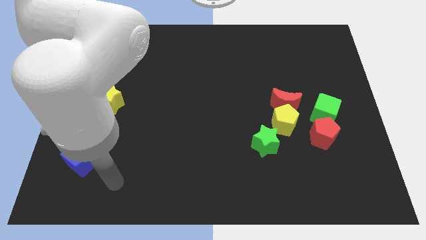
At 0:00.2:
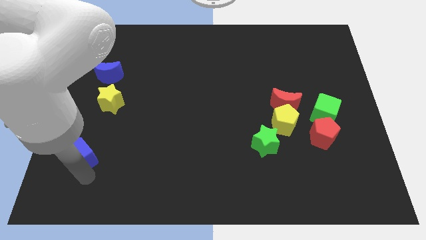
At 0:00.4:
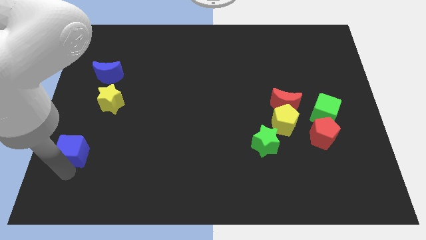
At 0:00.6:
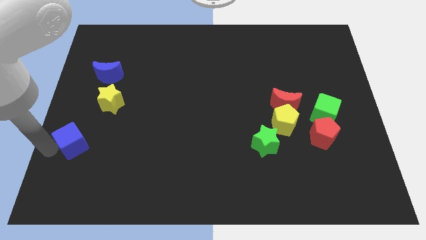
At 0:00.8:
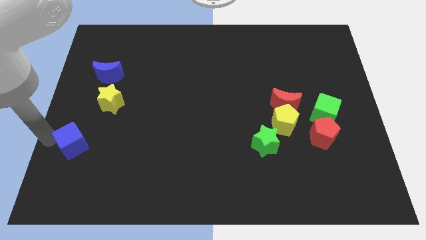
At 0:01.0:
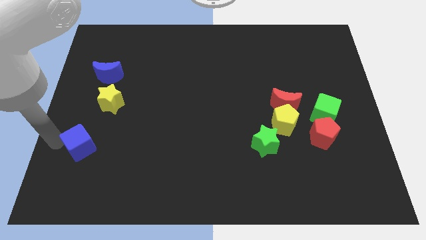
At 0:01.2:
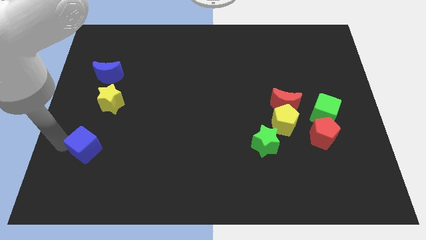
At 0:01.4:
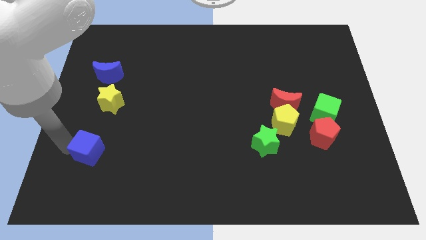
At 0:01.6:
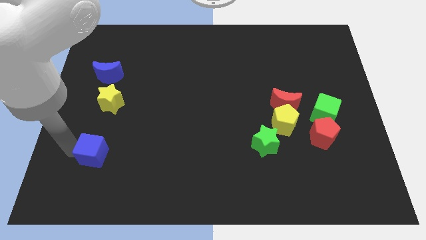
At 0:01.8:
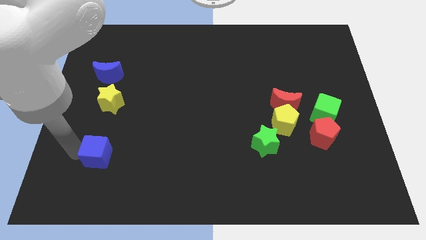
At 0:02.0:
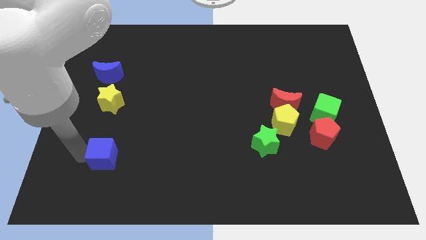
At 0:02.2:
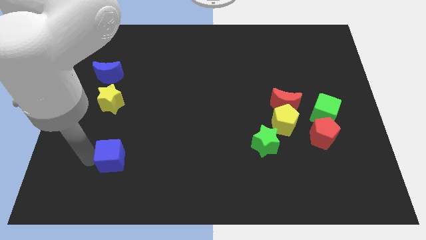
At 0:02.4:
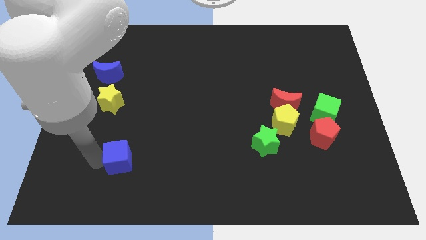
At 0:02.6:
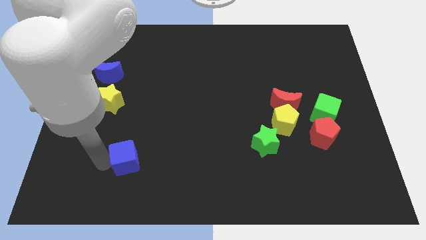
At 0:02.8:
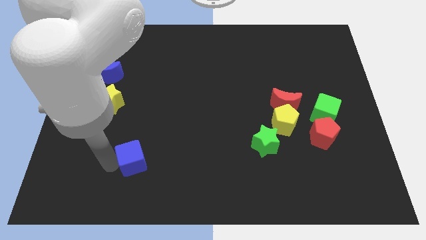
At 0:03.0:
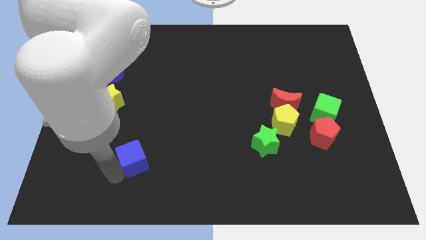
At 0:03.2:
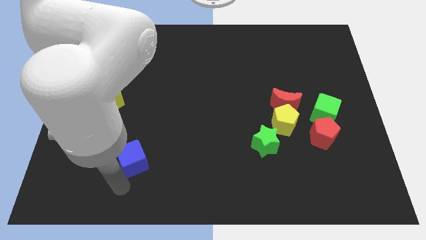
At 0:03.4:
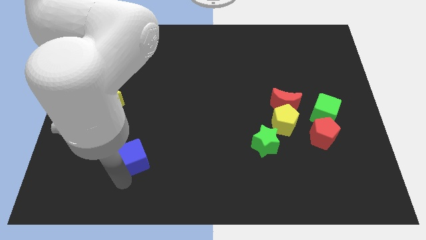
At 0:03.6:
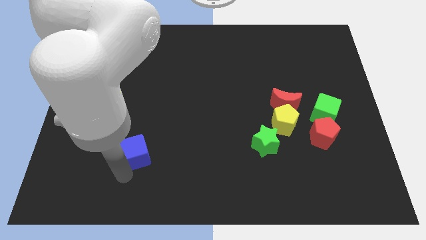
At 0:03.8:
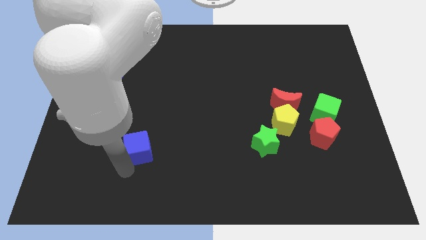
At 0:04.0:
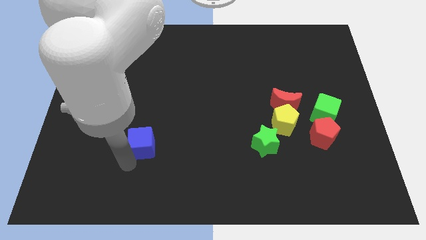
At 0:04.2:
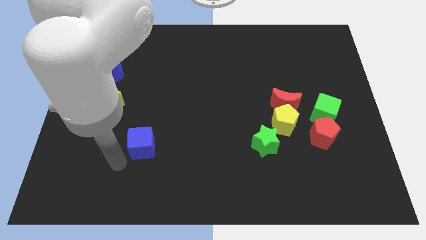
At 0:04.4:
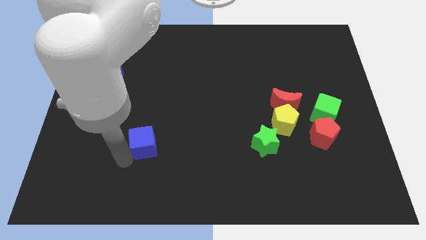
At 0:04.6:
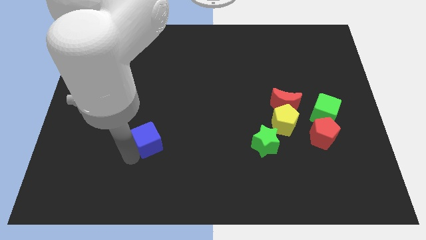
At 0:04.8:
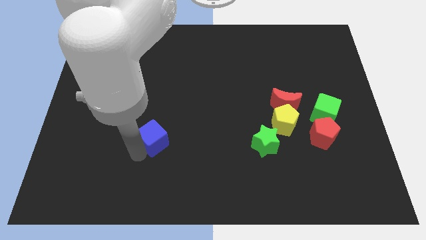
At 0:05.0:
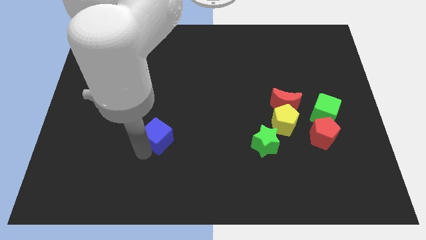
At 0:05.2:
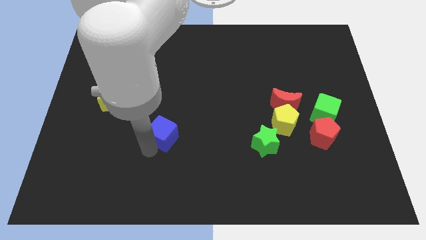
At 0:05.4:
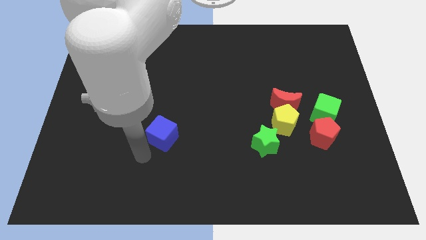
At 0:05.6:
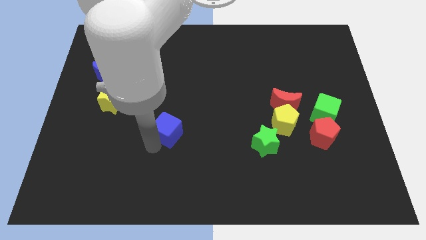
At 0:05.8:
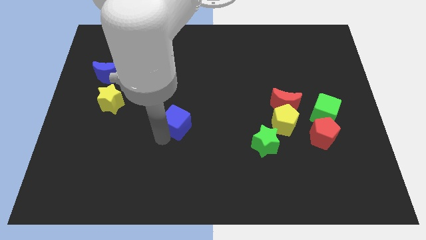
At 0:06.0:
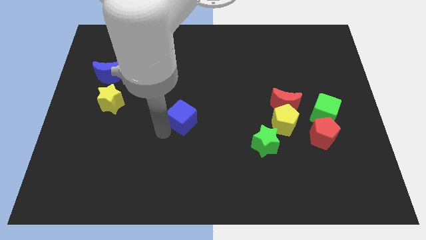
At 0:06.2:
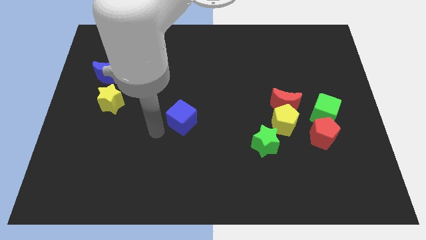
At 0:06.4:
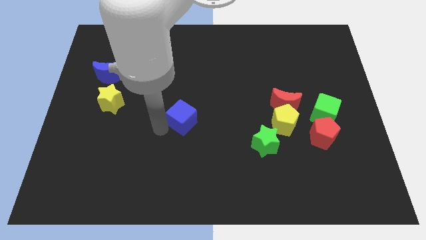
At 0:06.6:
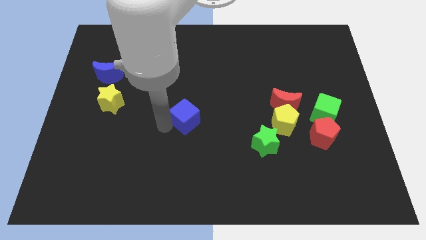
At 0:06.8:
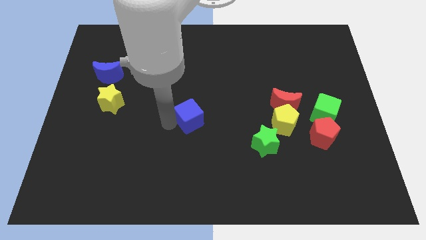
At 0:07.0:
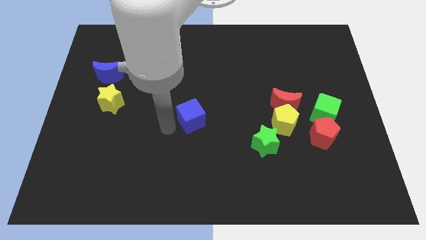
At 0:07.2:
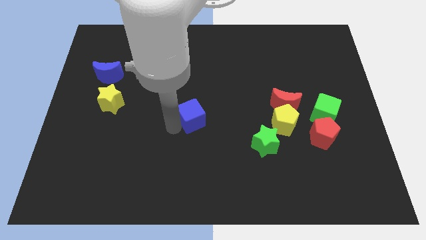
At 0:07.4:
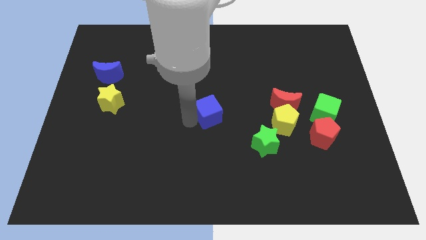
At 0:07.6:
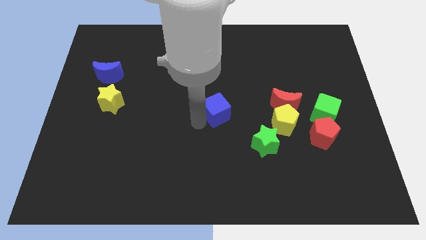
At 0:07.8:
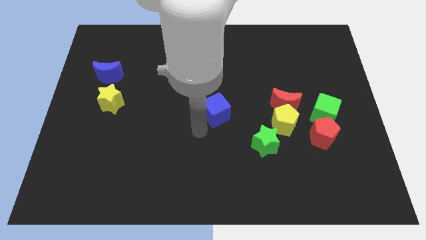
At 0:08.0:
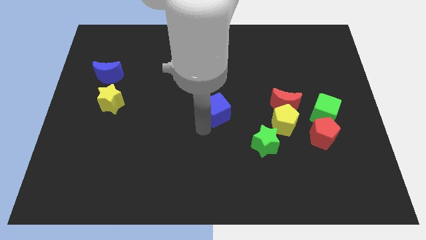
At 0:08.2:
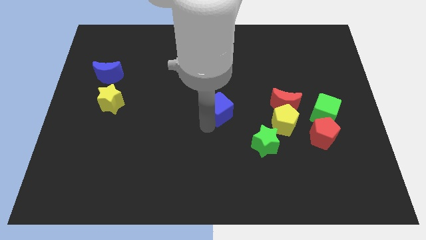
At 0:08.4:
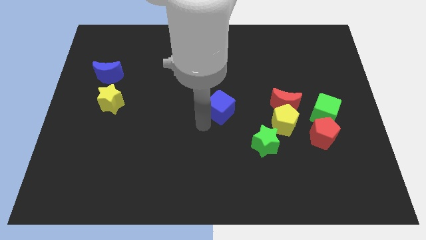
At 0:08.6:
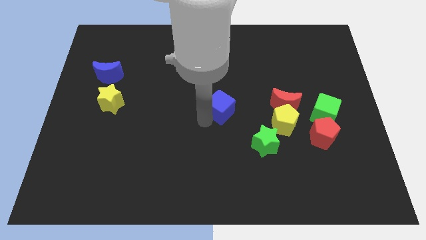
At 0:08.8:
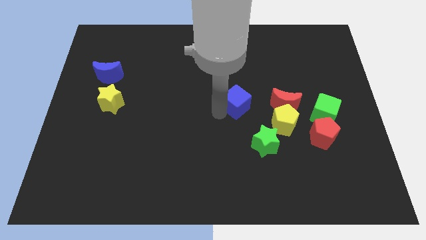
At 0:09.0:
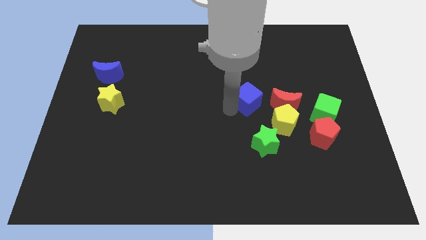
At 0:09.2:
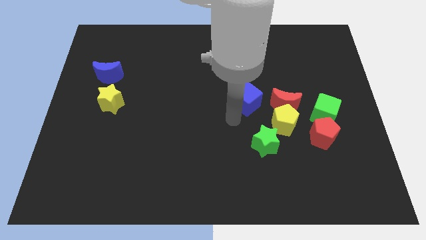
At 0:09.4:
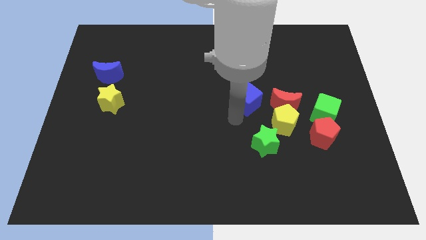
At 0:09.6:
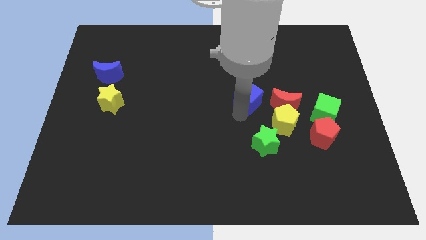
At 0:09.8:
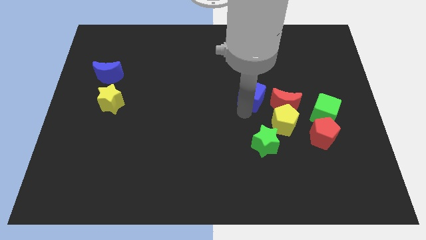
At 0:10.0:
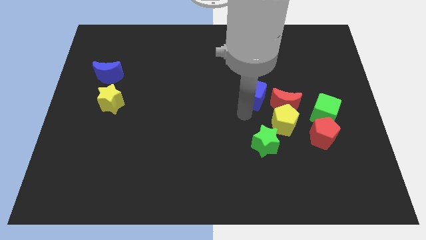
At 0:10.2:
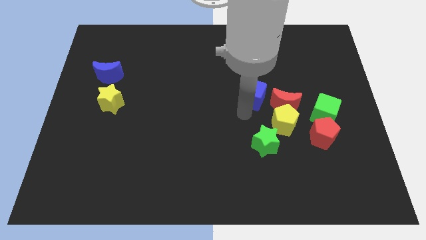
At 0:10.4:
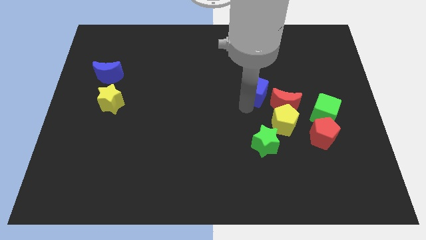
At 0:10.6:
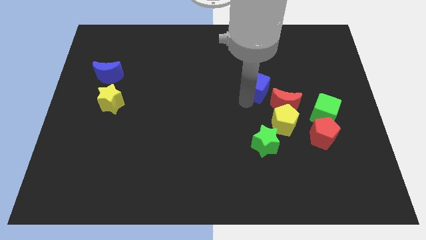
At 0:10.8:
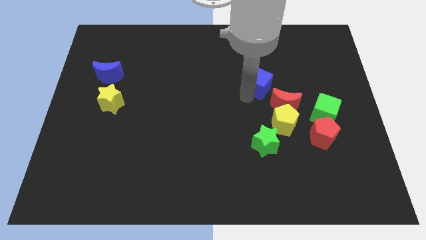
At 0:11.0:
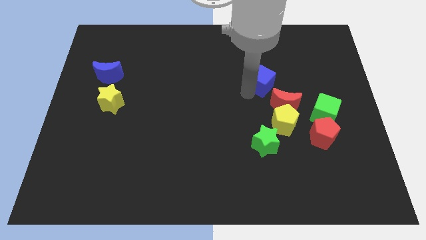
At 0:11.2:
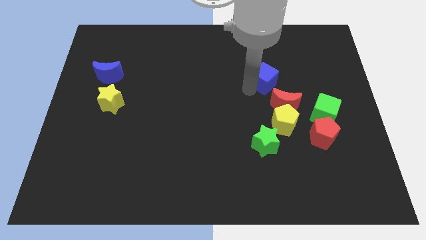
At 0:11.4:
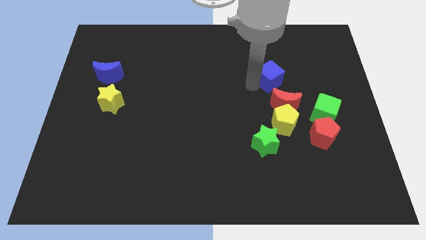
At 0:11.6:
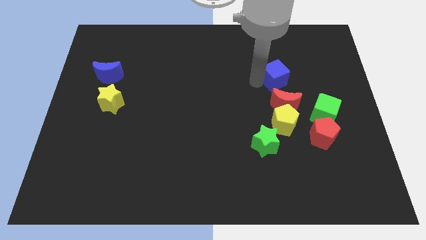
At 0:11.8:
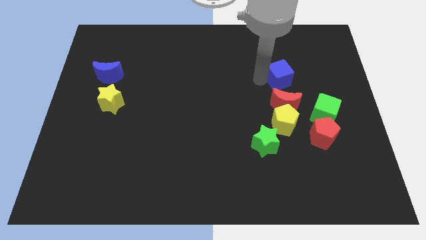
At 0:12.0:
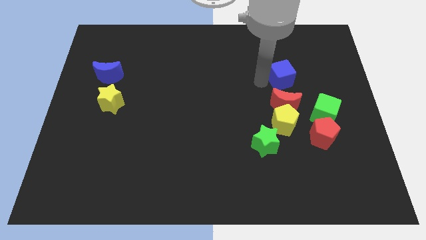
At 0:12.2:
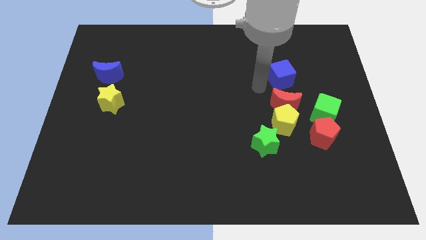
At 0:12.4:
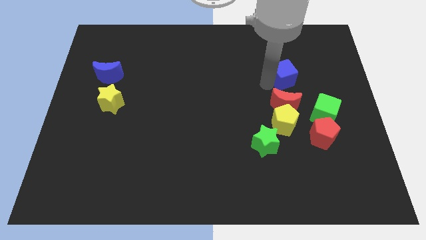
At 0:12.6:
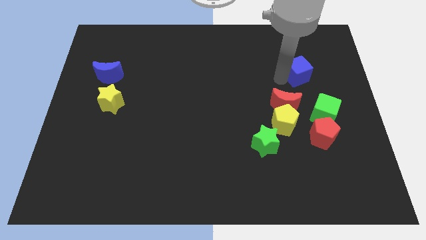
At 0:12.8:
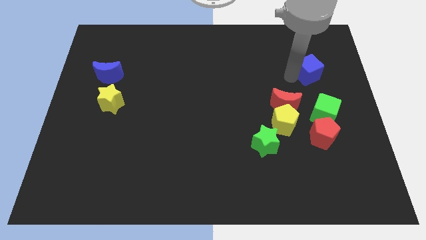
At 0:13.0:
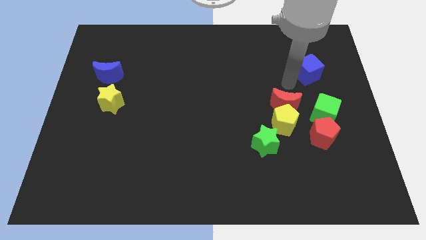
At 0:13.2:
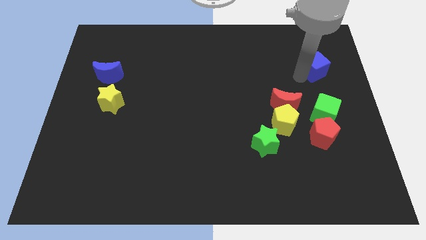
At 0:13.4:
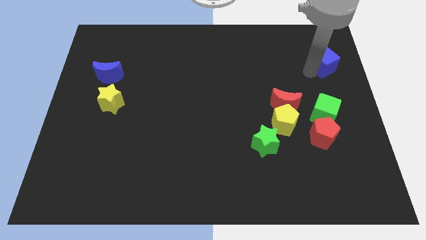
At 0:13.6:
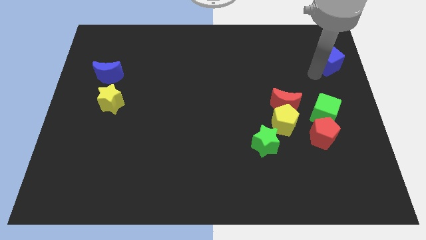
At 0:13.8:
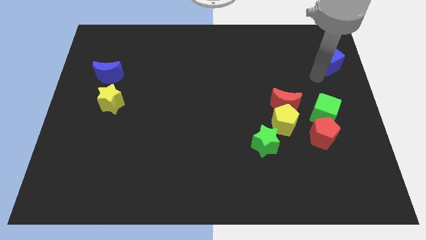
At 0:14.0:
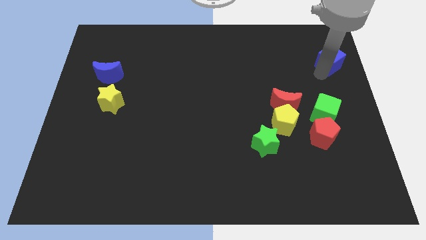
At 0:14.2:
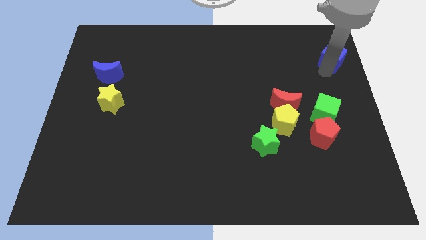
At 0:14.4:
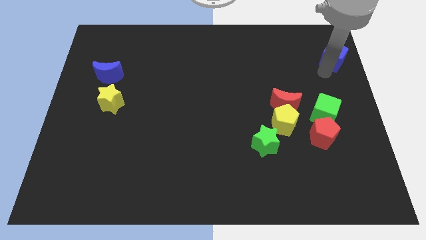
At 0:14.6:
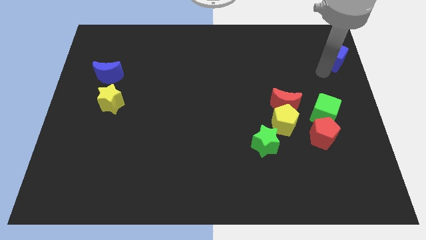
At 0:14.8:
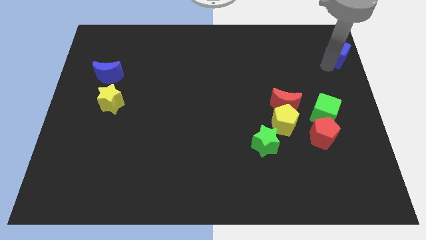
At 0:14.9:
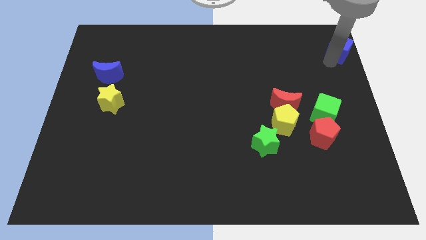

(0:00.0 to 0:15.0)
push the blue cube to the top right
